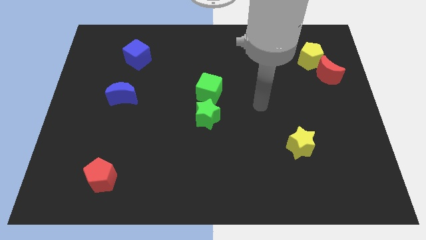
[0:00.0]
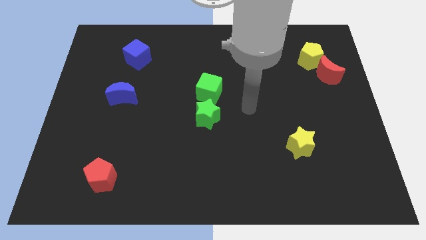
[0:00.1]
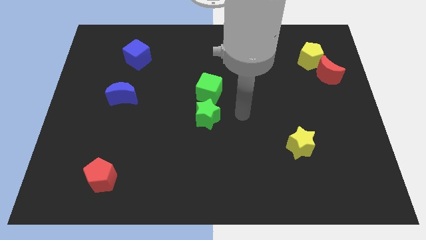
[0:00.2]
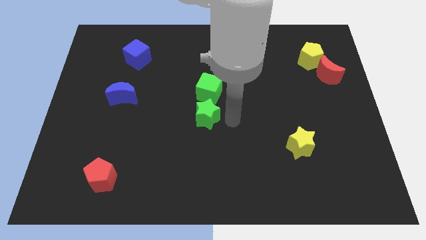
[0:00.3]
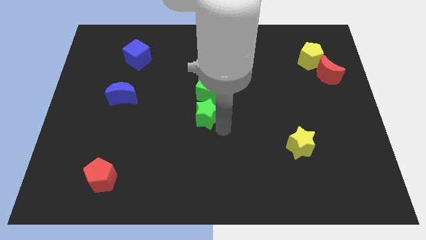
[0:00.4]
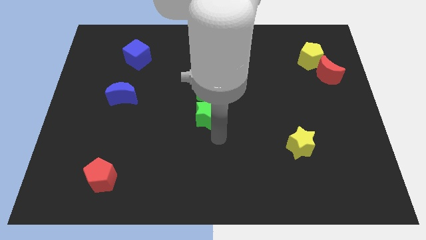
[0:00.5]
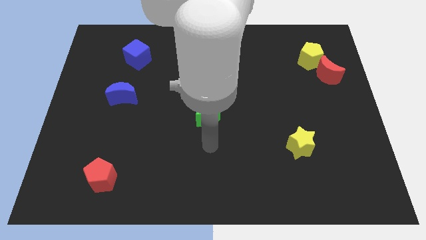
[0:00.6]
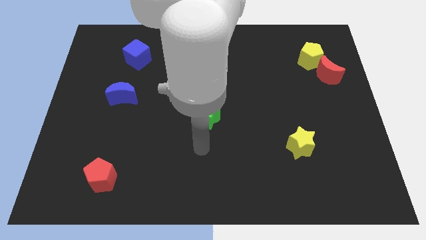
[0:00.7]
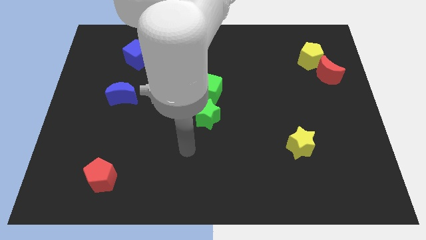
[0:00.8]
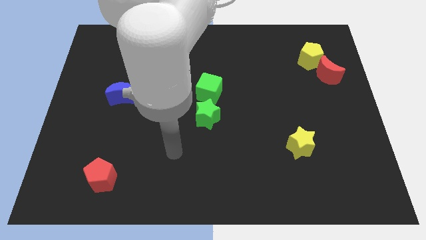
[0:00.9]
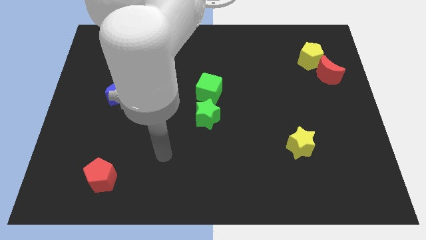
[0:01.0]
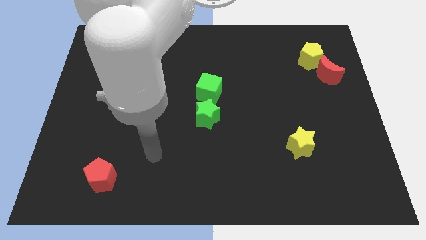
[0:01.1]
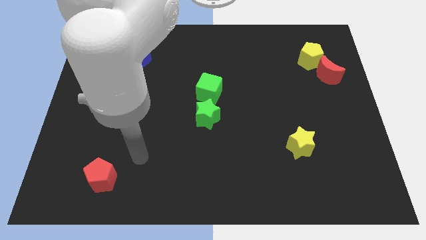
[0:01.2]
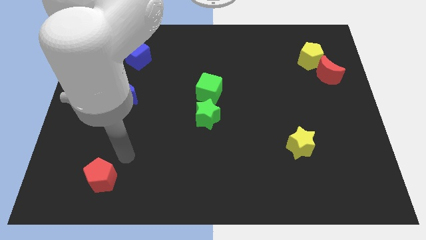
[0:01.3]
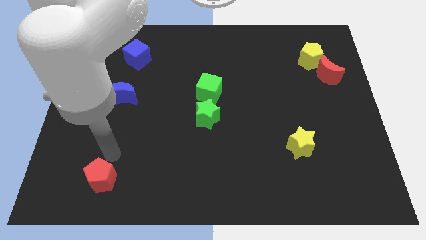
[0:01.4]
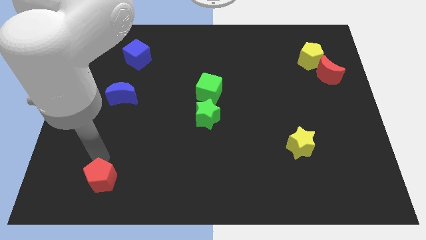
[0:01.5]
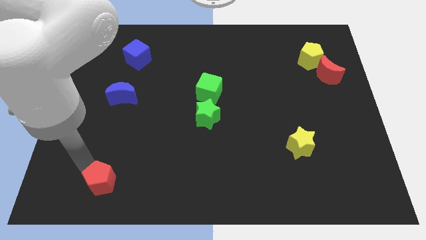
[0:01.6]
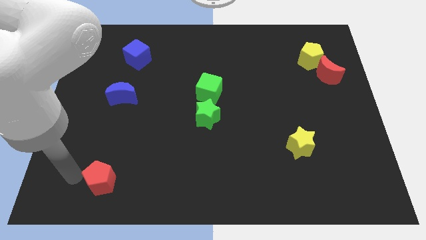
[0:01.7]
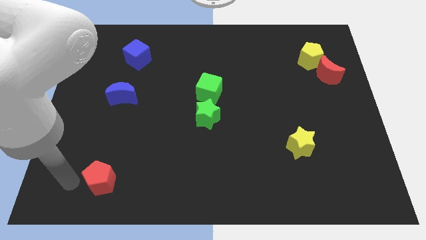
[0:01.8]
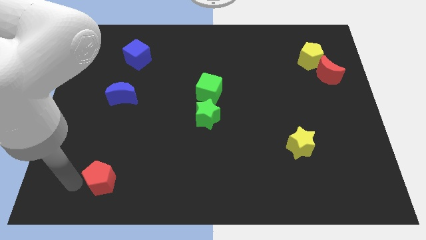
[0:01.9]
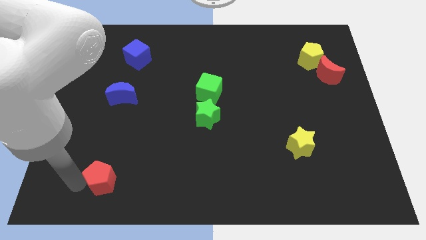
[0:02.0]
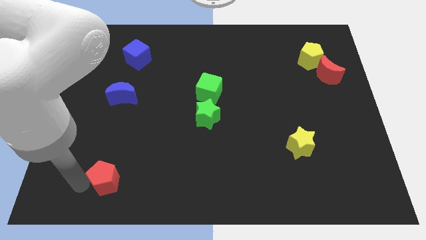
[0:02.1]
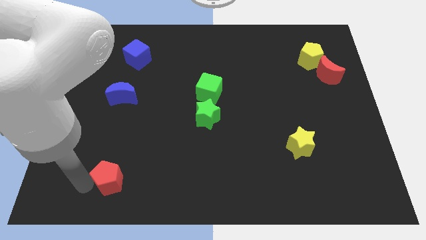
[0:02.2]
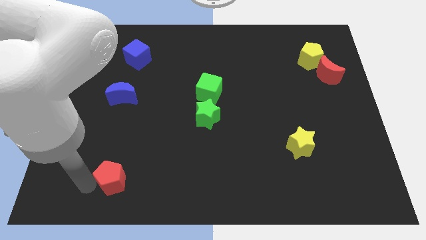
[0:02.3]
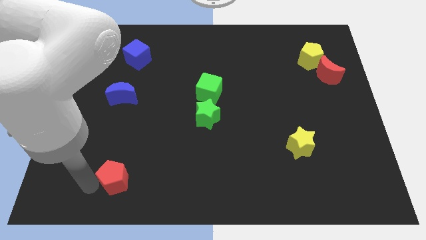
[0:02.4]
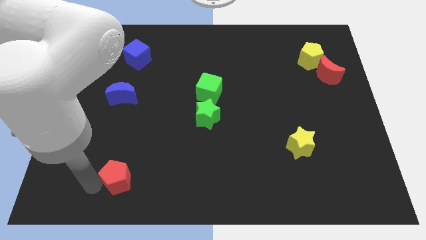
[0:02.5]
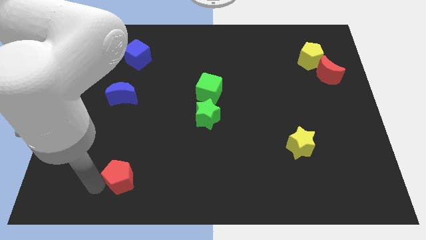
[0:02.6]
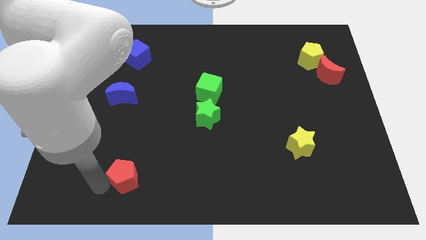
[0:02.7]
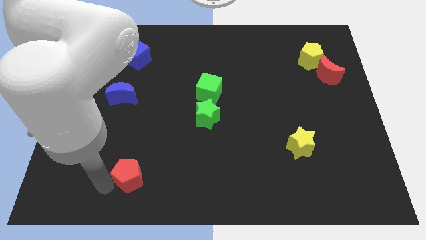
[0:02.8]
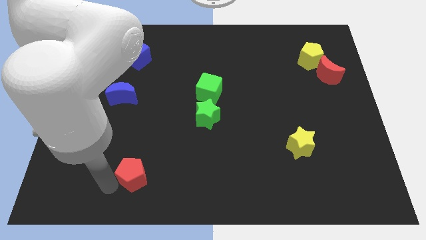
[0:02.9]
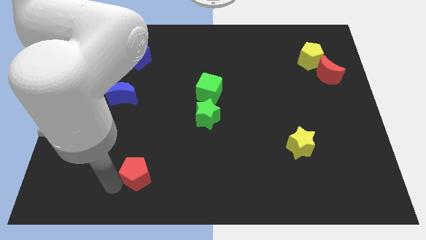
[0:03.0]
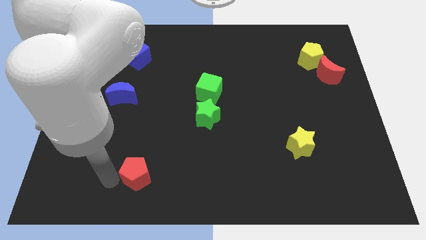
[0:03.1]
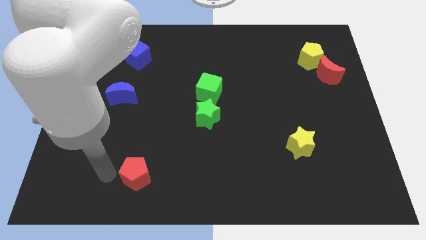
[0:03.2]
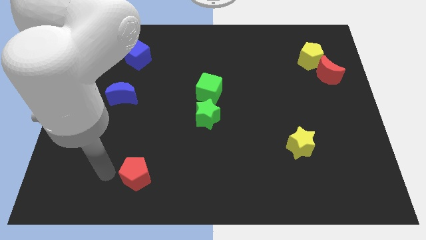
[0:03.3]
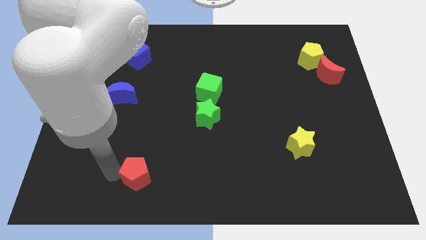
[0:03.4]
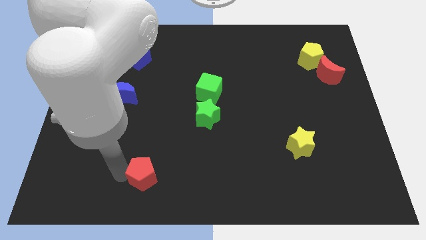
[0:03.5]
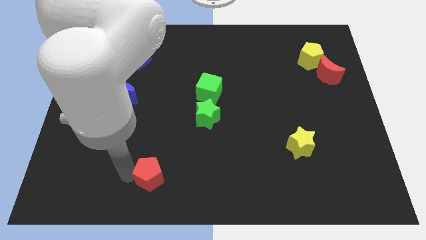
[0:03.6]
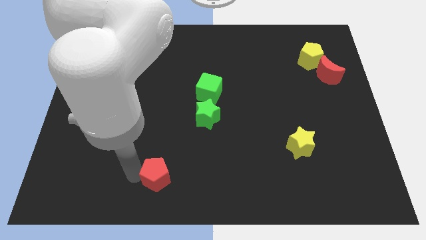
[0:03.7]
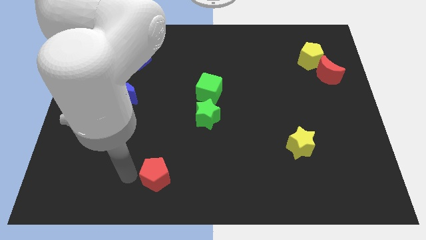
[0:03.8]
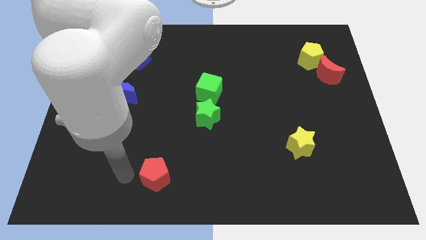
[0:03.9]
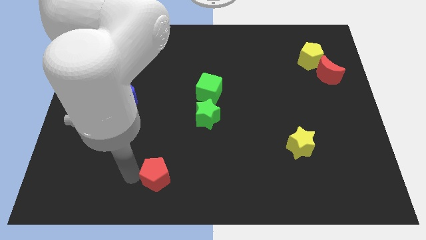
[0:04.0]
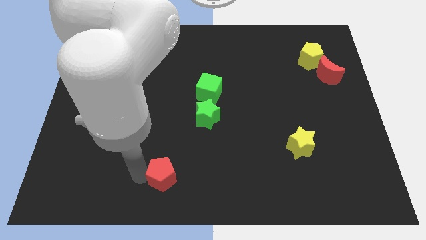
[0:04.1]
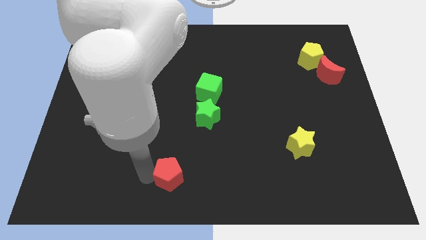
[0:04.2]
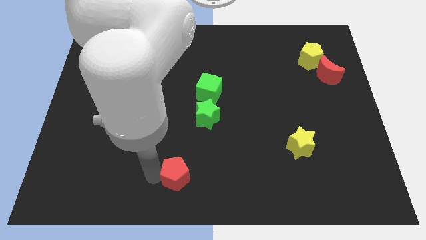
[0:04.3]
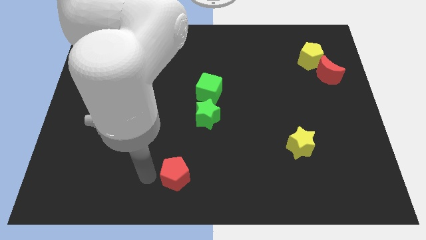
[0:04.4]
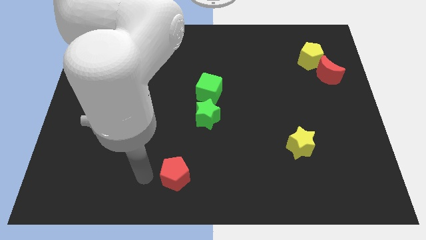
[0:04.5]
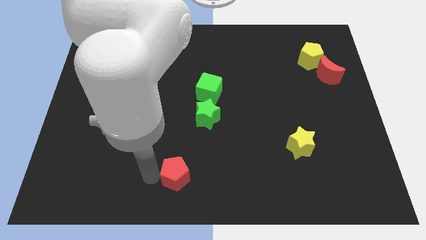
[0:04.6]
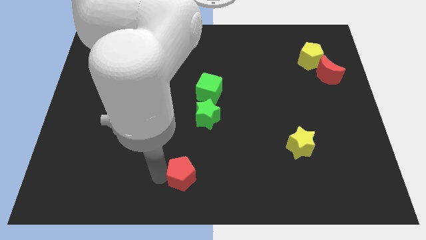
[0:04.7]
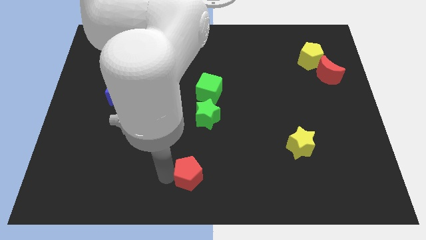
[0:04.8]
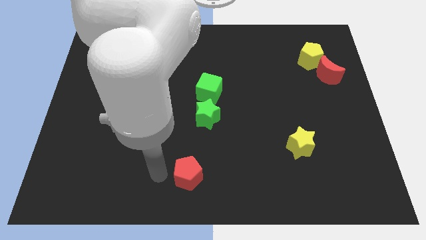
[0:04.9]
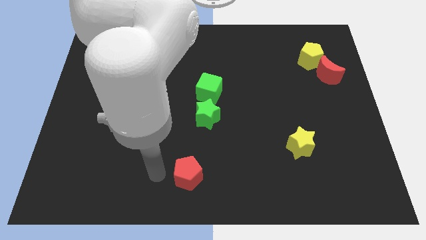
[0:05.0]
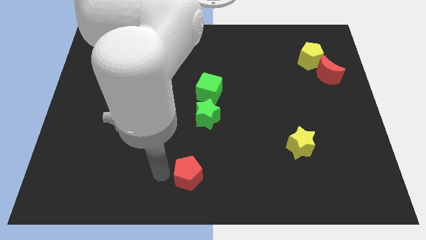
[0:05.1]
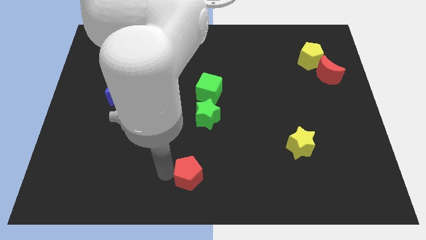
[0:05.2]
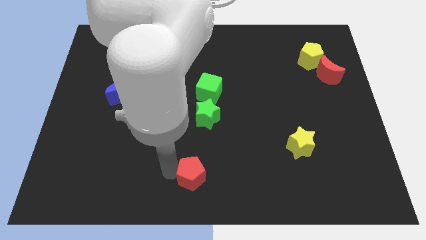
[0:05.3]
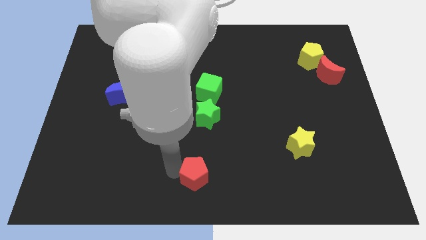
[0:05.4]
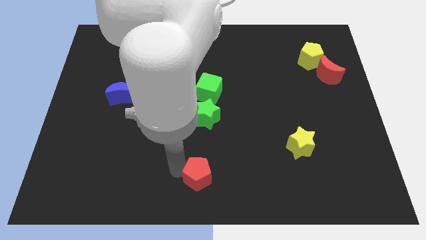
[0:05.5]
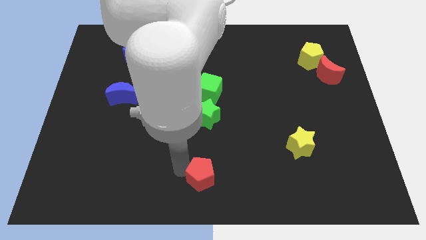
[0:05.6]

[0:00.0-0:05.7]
push the red pentagon to the right

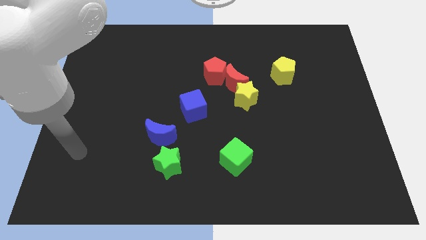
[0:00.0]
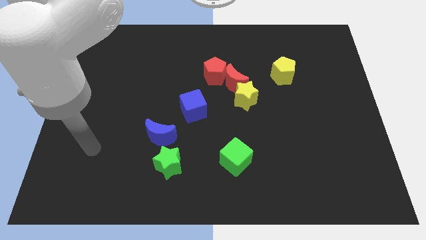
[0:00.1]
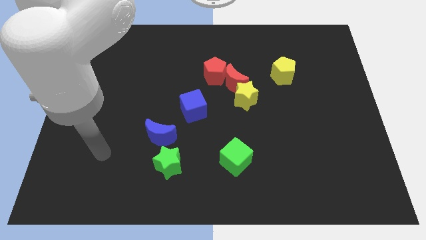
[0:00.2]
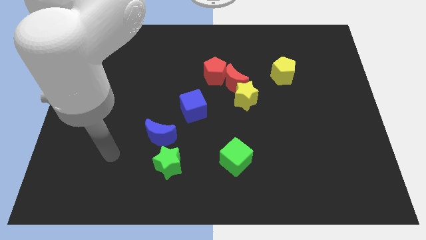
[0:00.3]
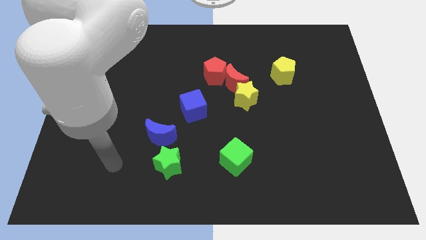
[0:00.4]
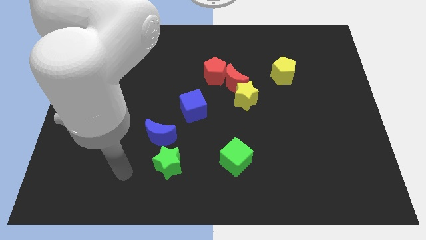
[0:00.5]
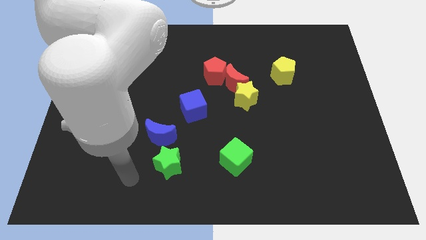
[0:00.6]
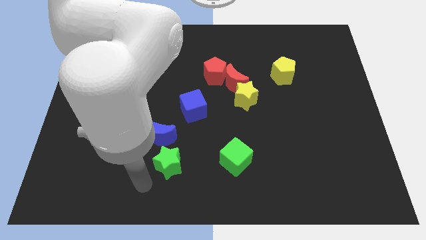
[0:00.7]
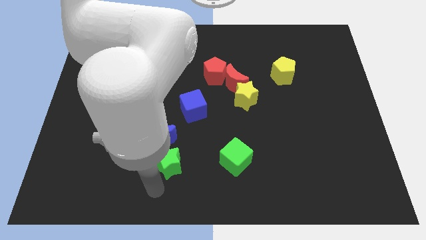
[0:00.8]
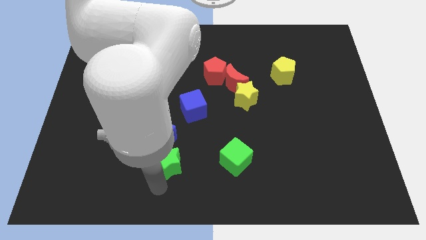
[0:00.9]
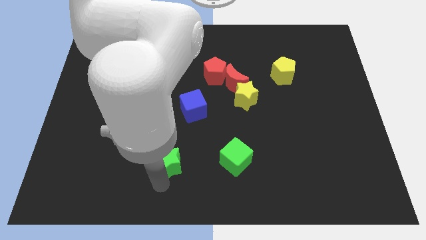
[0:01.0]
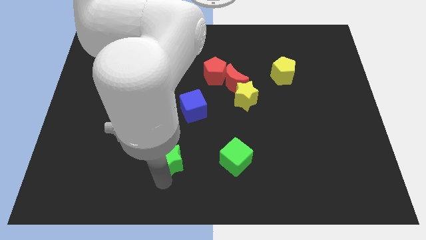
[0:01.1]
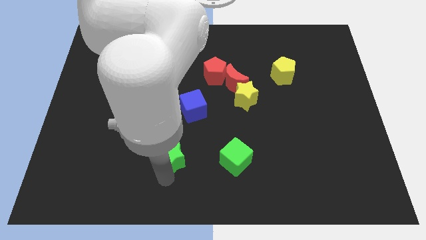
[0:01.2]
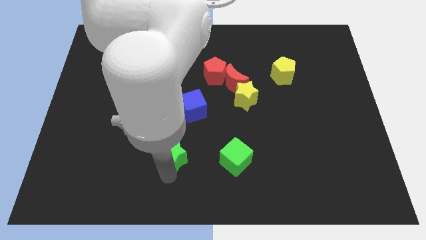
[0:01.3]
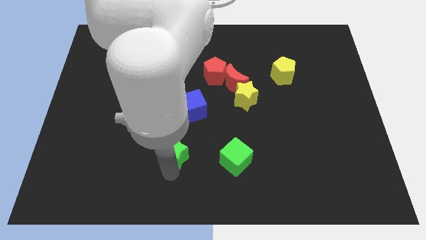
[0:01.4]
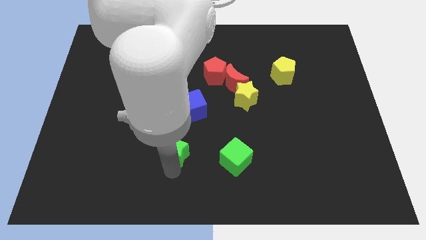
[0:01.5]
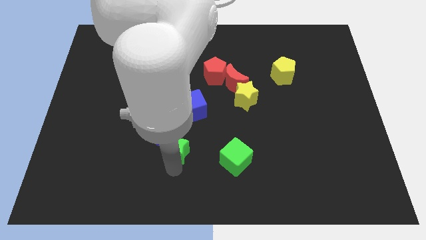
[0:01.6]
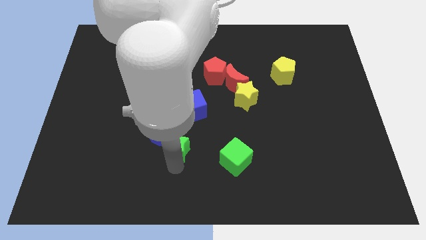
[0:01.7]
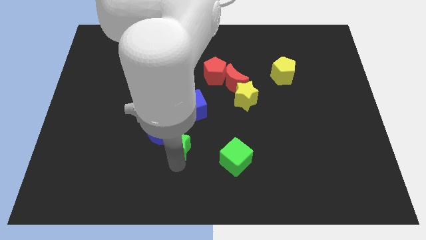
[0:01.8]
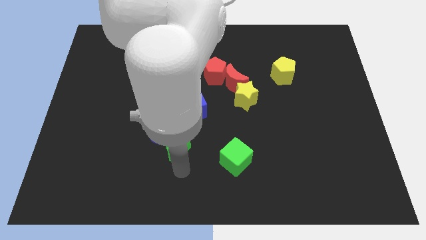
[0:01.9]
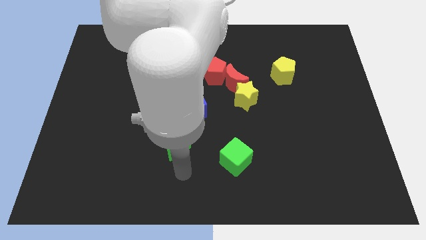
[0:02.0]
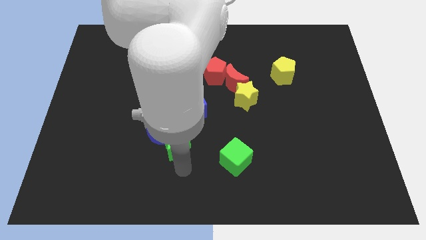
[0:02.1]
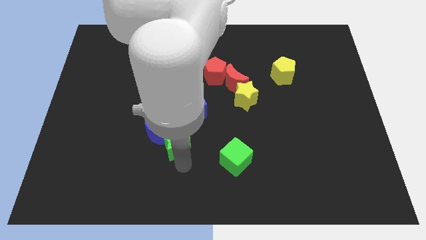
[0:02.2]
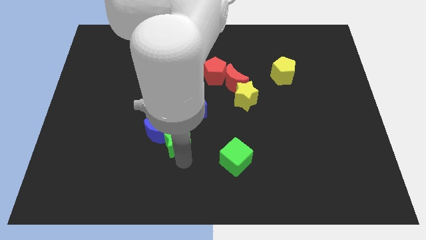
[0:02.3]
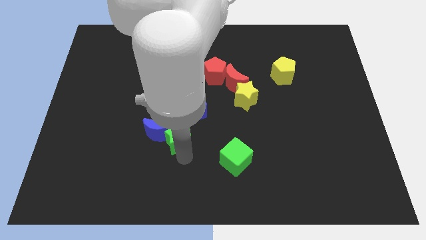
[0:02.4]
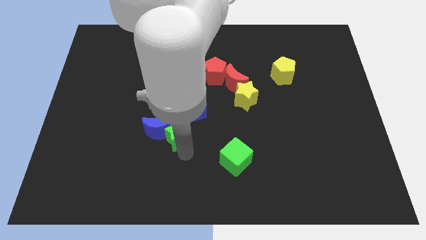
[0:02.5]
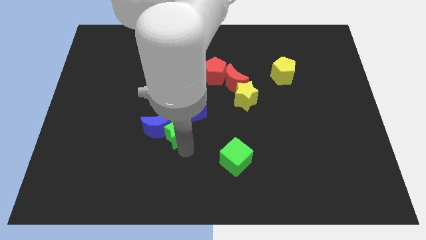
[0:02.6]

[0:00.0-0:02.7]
move the green star slightly up
